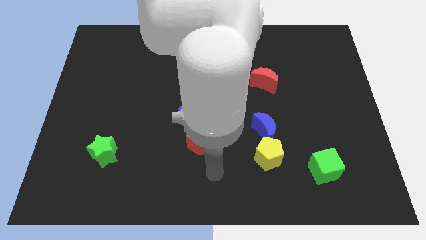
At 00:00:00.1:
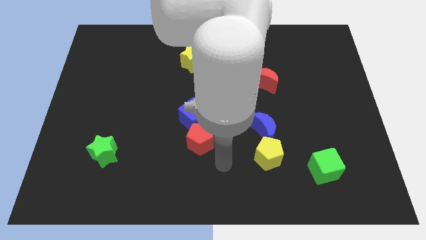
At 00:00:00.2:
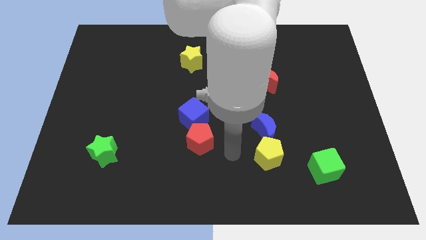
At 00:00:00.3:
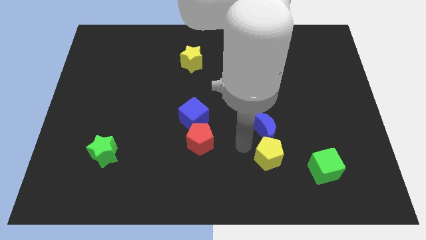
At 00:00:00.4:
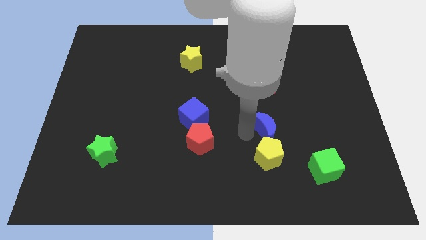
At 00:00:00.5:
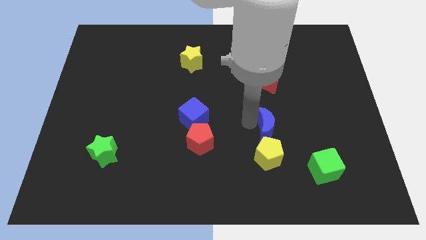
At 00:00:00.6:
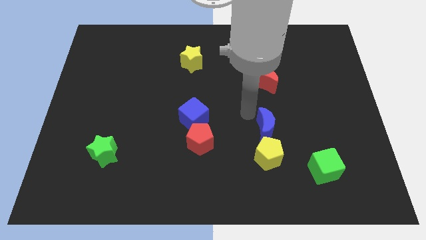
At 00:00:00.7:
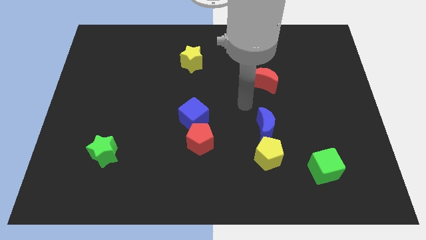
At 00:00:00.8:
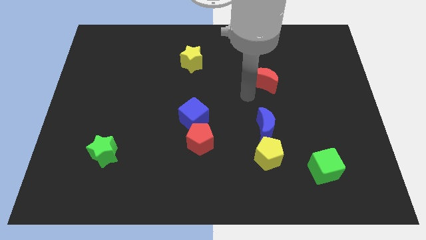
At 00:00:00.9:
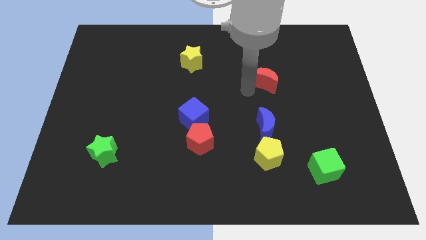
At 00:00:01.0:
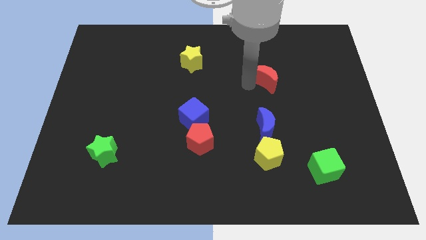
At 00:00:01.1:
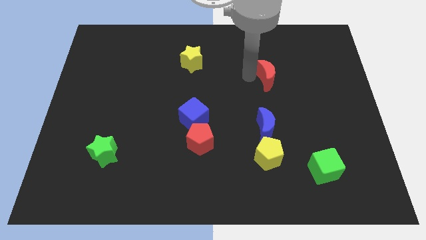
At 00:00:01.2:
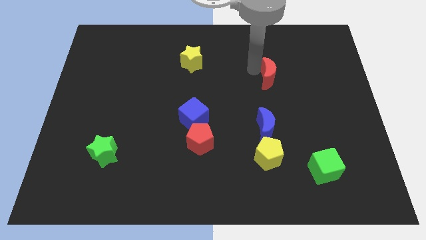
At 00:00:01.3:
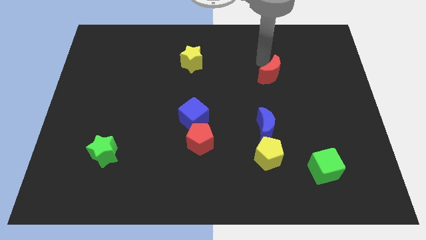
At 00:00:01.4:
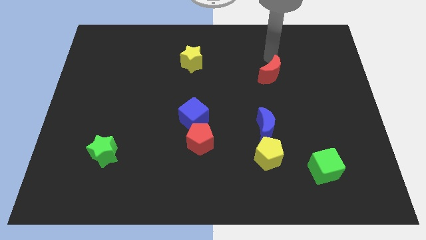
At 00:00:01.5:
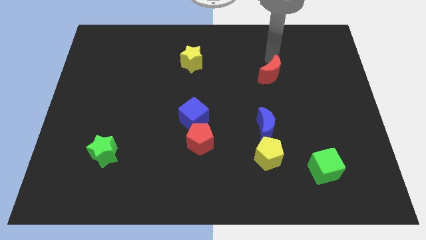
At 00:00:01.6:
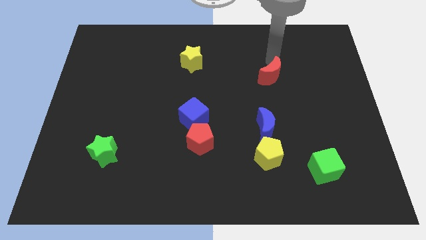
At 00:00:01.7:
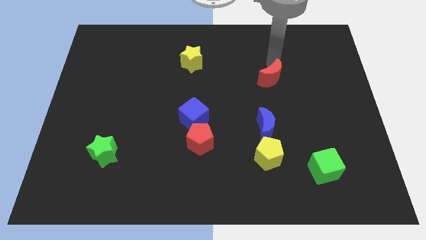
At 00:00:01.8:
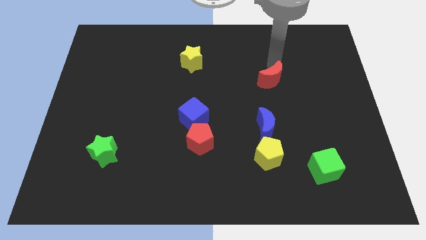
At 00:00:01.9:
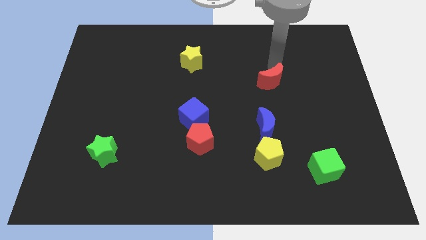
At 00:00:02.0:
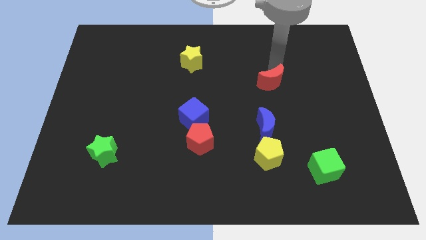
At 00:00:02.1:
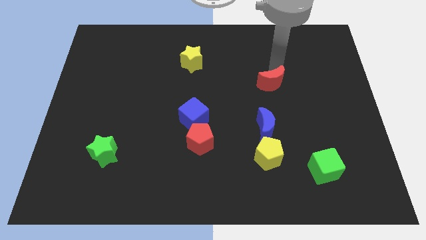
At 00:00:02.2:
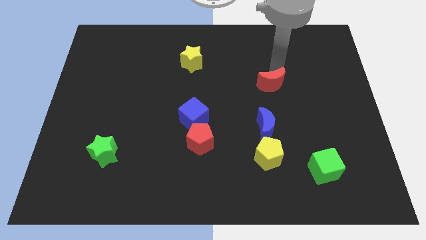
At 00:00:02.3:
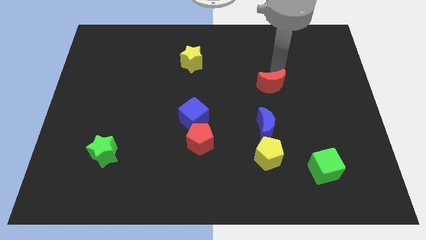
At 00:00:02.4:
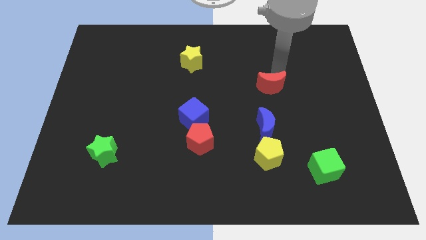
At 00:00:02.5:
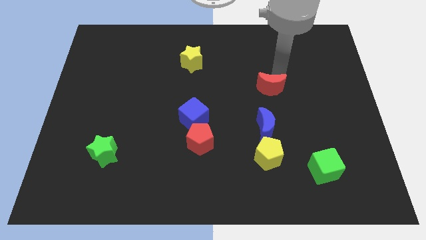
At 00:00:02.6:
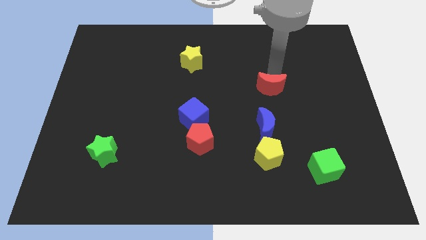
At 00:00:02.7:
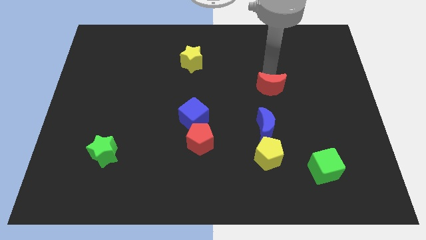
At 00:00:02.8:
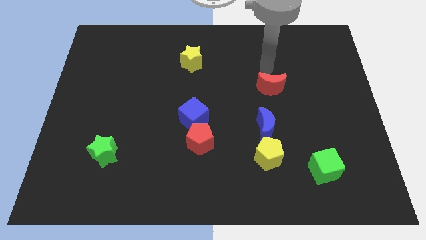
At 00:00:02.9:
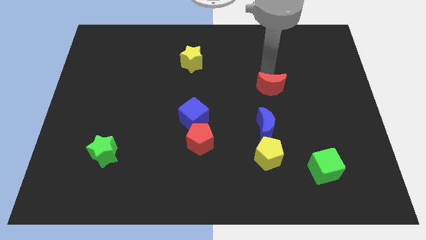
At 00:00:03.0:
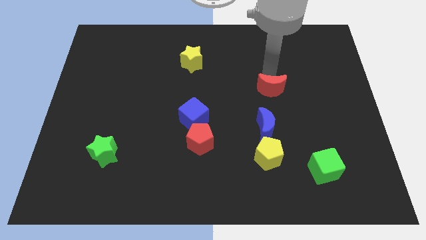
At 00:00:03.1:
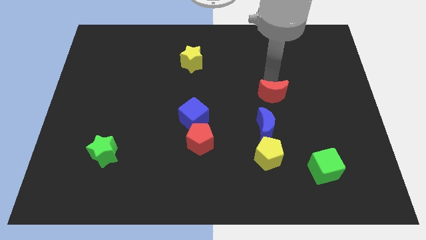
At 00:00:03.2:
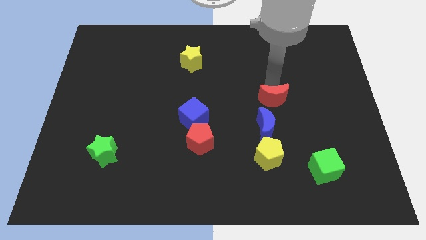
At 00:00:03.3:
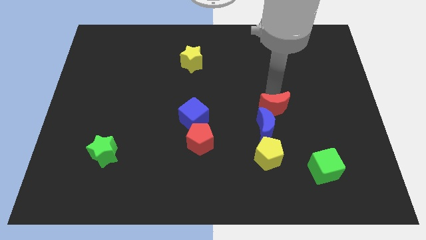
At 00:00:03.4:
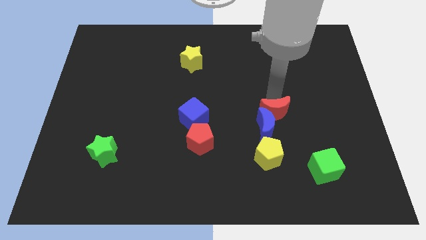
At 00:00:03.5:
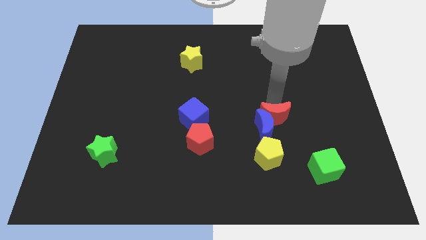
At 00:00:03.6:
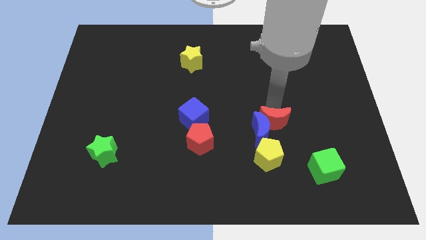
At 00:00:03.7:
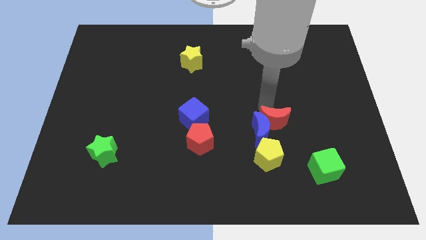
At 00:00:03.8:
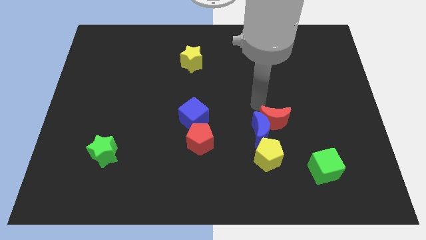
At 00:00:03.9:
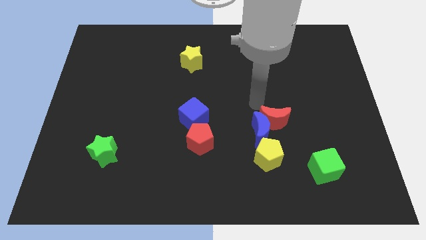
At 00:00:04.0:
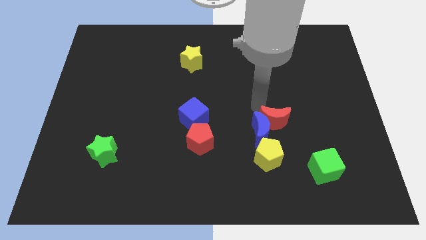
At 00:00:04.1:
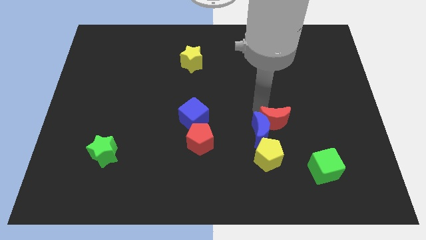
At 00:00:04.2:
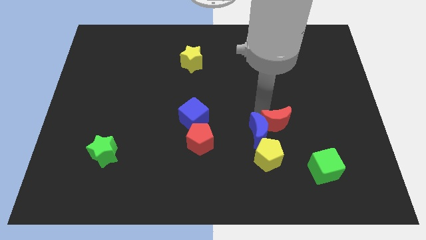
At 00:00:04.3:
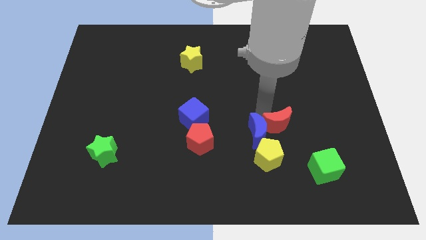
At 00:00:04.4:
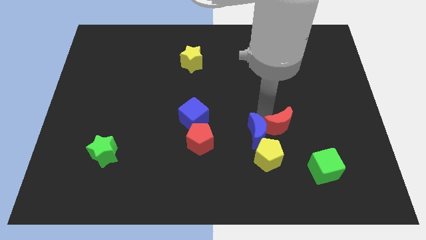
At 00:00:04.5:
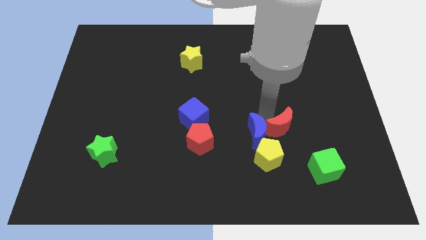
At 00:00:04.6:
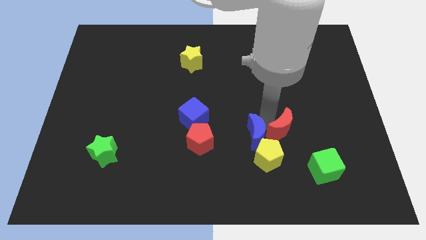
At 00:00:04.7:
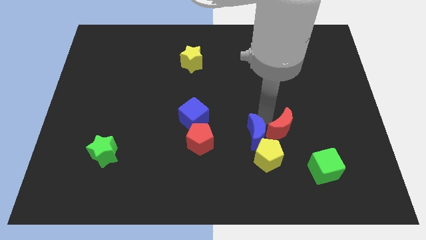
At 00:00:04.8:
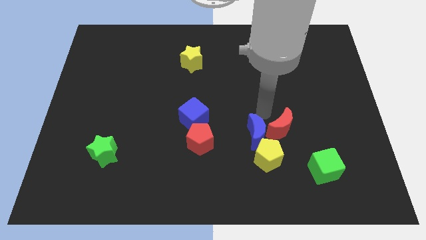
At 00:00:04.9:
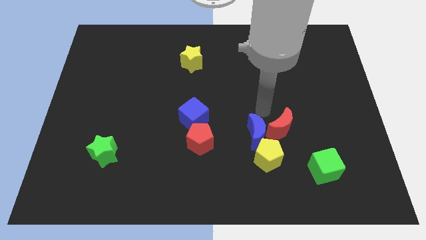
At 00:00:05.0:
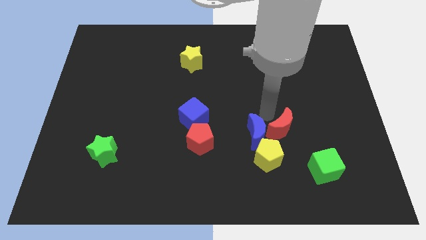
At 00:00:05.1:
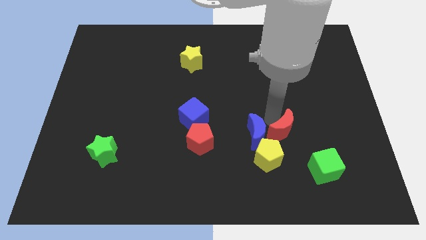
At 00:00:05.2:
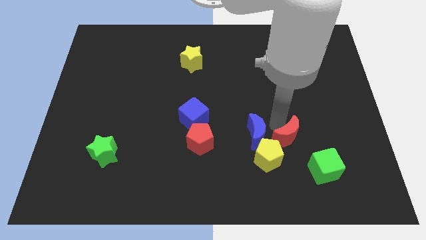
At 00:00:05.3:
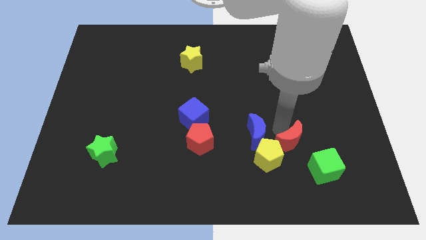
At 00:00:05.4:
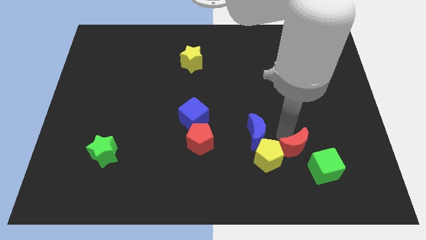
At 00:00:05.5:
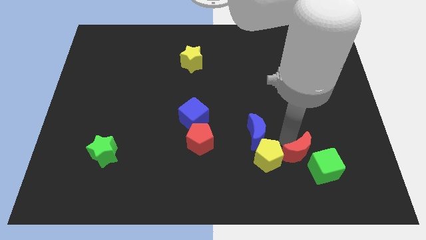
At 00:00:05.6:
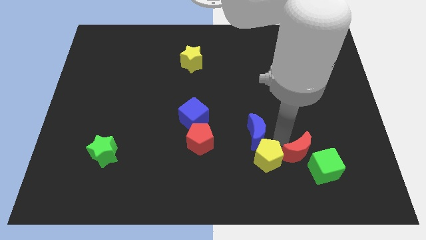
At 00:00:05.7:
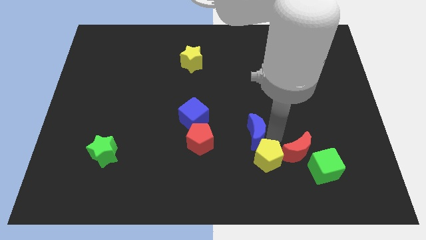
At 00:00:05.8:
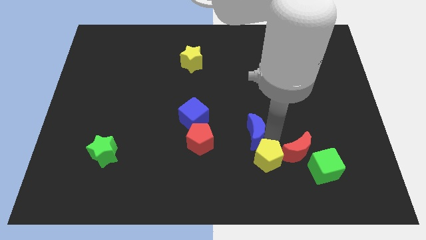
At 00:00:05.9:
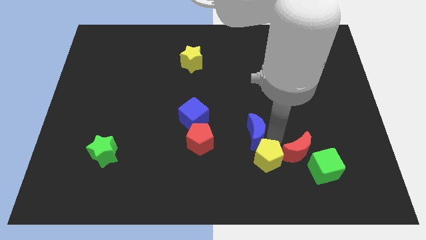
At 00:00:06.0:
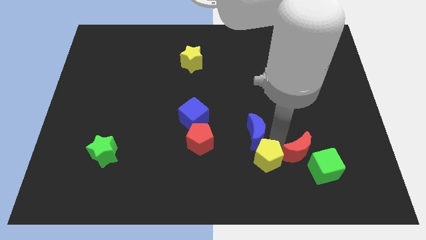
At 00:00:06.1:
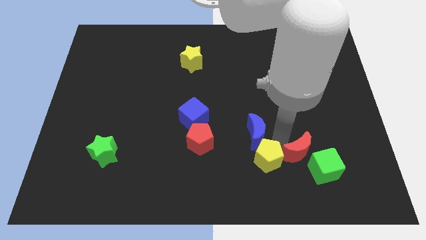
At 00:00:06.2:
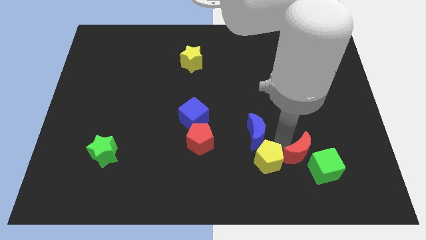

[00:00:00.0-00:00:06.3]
push the red moon next to the green cube

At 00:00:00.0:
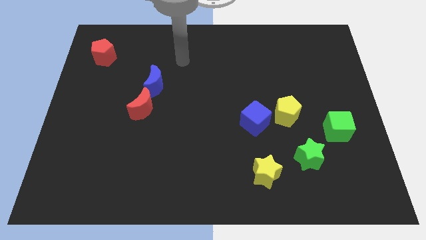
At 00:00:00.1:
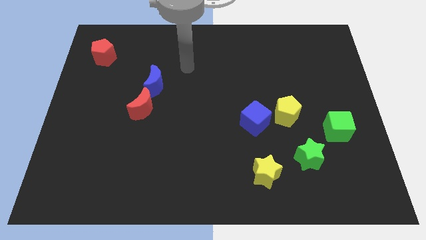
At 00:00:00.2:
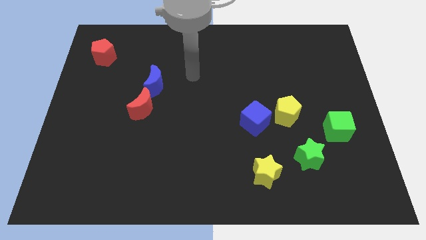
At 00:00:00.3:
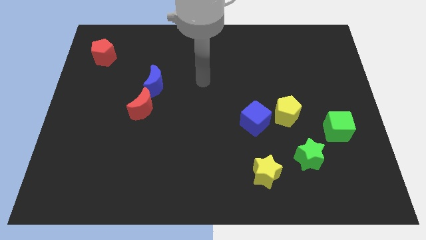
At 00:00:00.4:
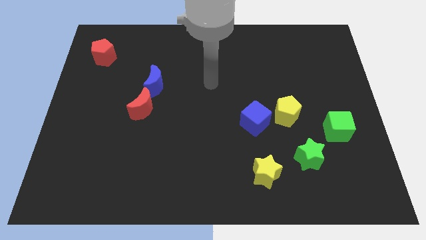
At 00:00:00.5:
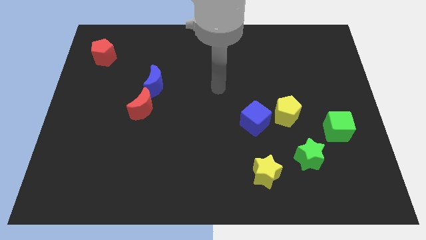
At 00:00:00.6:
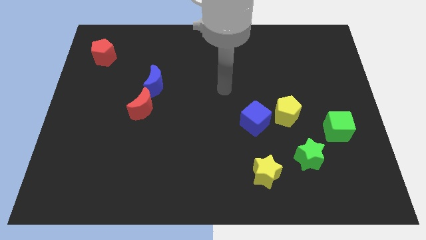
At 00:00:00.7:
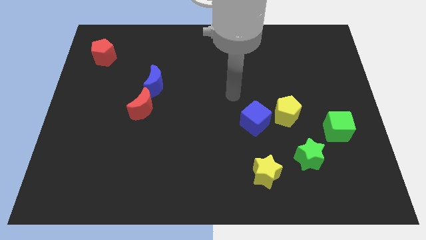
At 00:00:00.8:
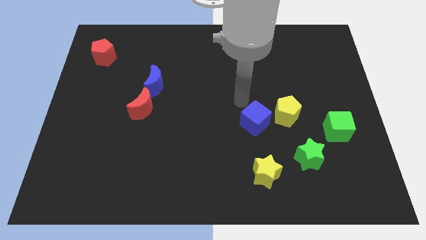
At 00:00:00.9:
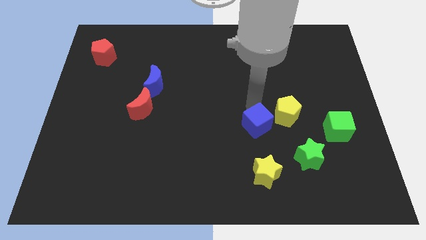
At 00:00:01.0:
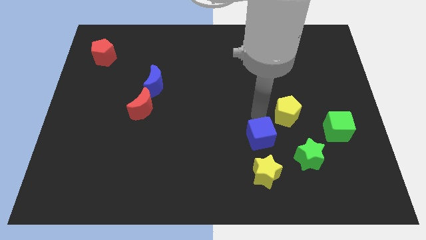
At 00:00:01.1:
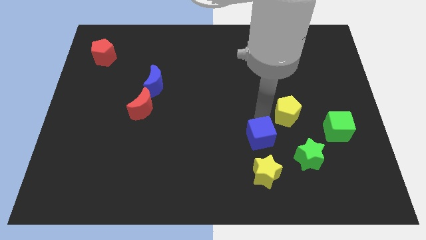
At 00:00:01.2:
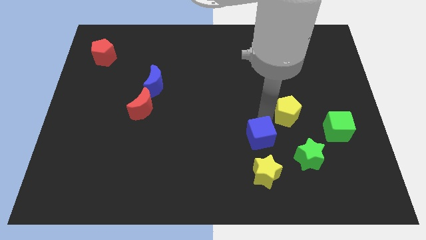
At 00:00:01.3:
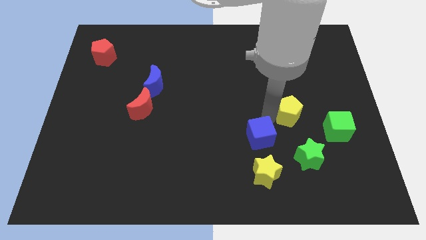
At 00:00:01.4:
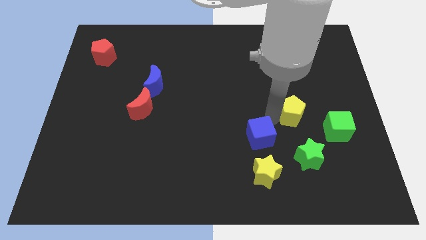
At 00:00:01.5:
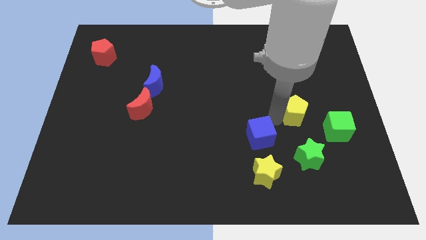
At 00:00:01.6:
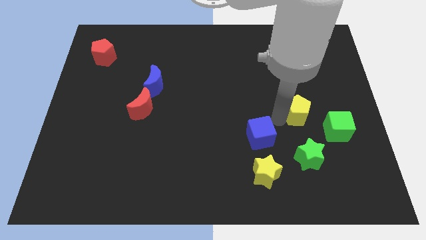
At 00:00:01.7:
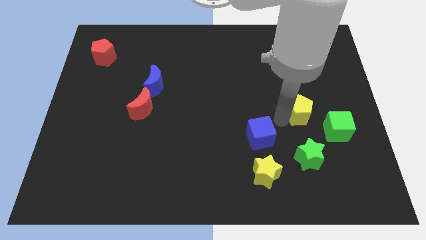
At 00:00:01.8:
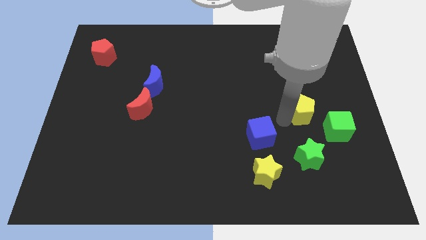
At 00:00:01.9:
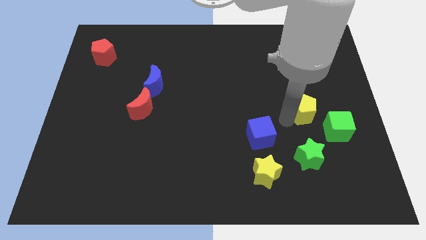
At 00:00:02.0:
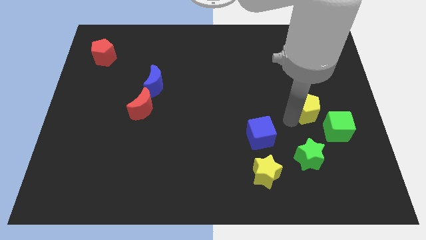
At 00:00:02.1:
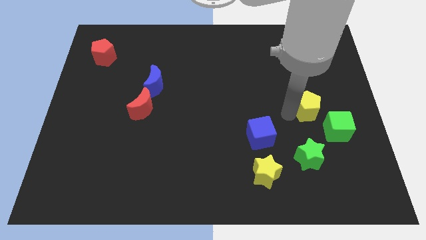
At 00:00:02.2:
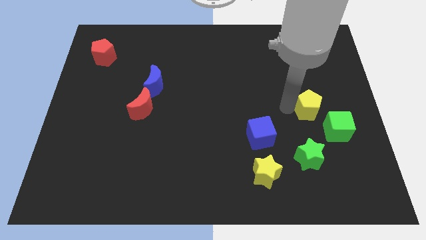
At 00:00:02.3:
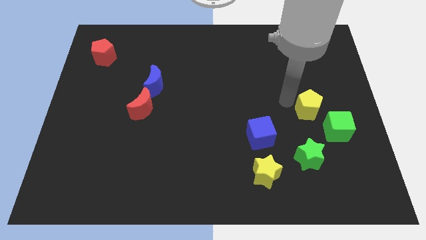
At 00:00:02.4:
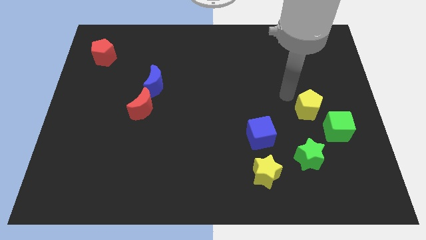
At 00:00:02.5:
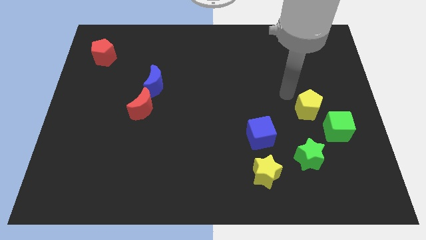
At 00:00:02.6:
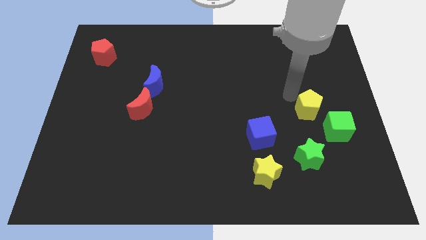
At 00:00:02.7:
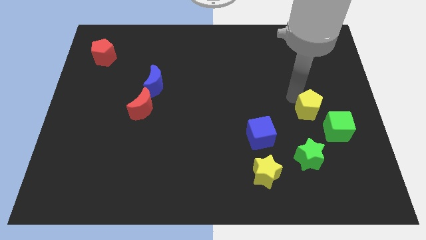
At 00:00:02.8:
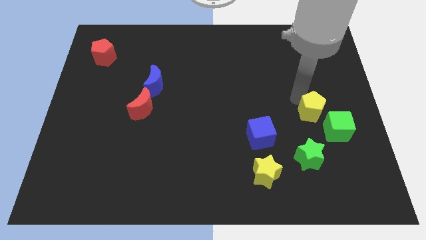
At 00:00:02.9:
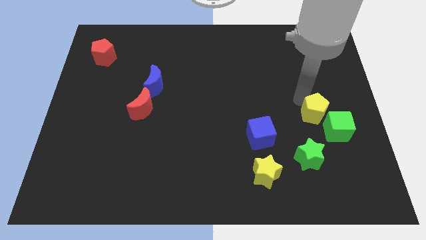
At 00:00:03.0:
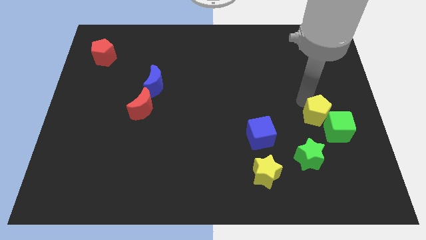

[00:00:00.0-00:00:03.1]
slide the yellow pentagon towards the green cube
